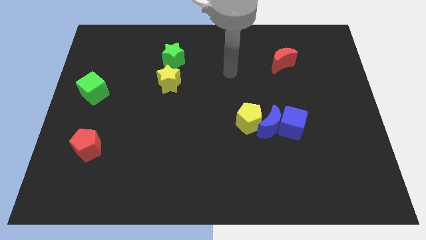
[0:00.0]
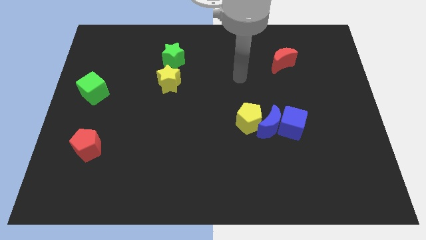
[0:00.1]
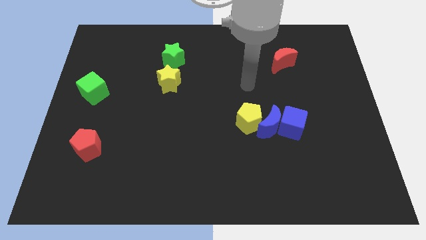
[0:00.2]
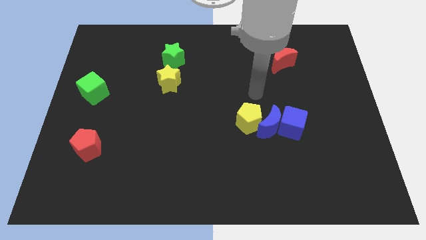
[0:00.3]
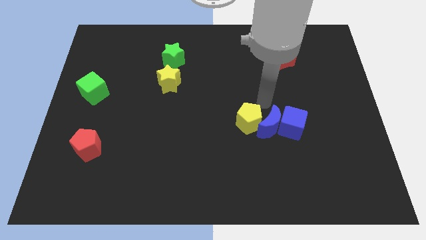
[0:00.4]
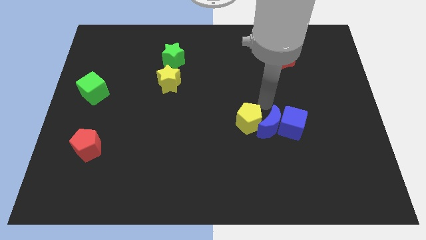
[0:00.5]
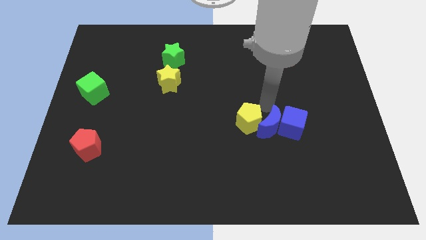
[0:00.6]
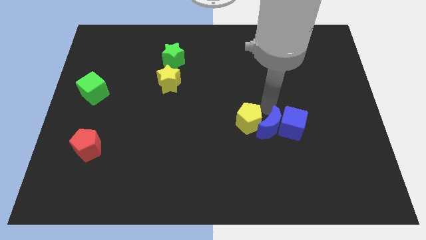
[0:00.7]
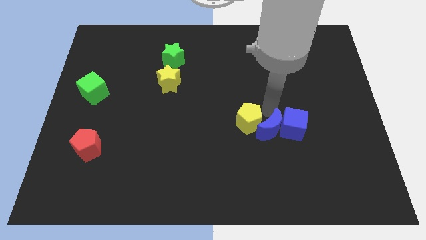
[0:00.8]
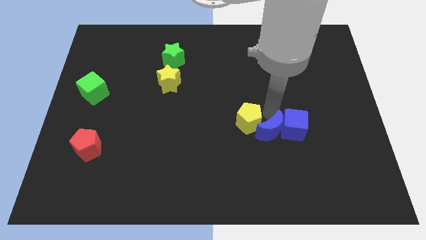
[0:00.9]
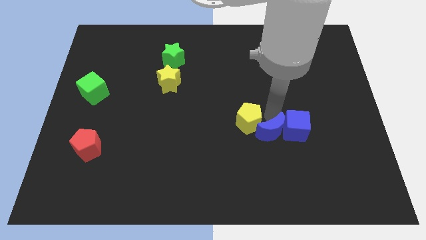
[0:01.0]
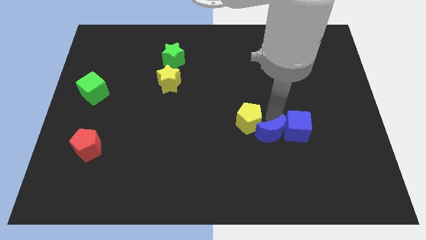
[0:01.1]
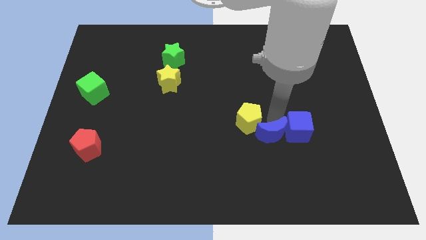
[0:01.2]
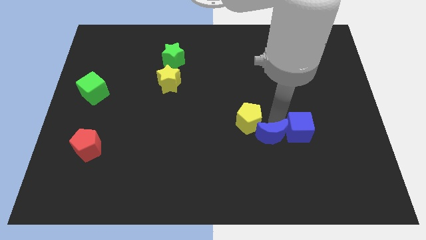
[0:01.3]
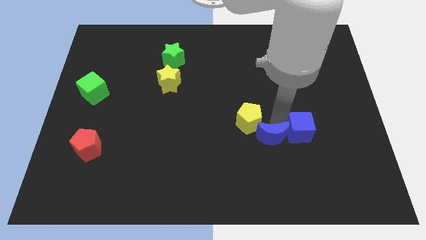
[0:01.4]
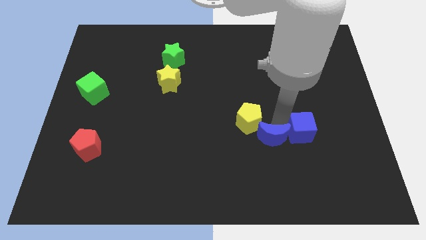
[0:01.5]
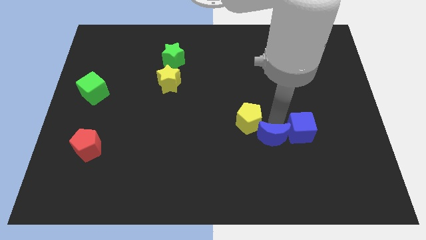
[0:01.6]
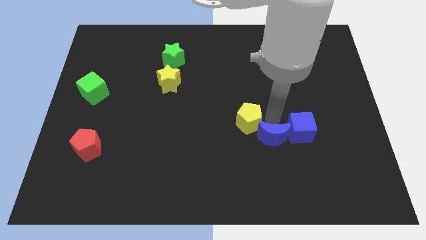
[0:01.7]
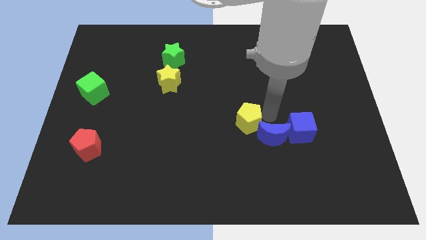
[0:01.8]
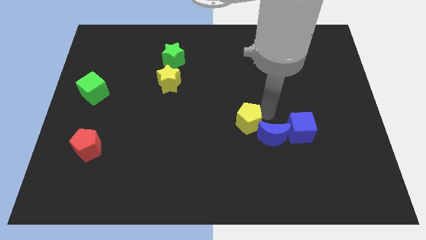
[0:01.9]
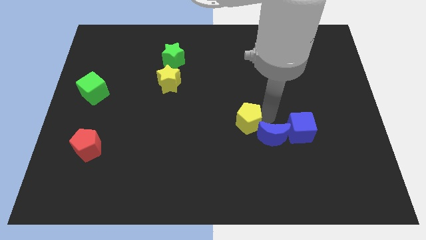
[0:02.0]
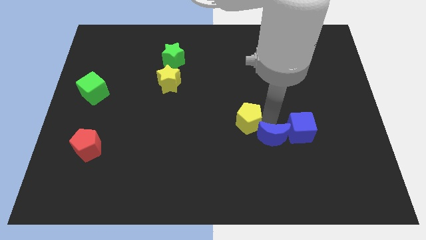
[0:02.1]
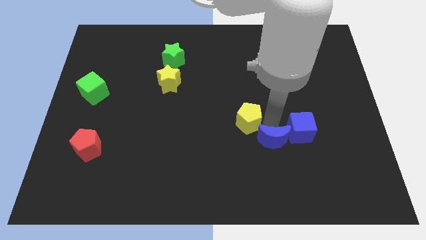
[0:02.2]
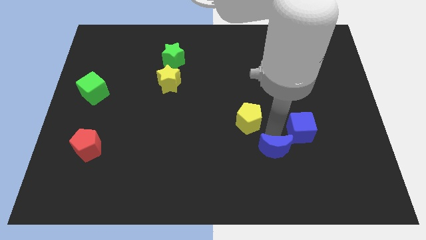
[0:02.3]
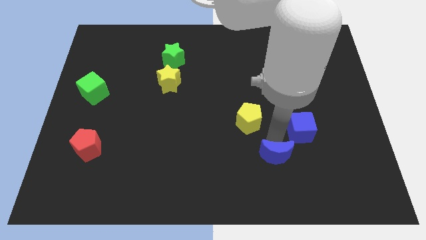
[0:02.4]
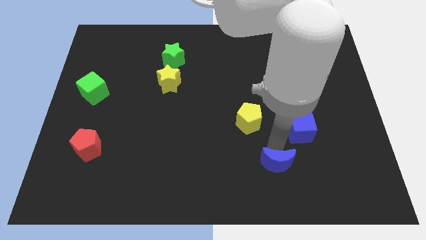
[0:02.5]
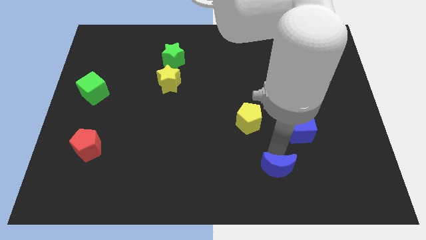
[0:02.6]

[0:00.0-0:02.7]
pull the blue moon apart from the blue cube and yellow pentagon

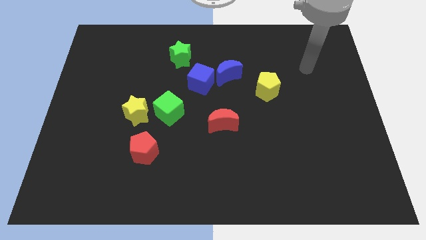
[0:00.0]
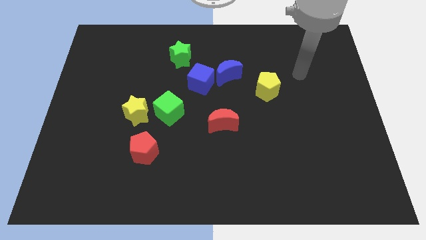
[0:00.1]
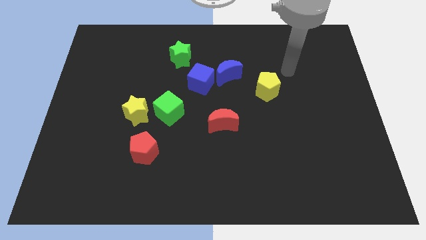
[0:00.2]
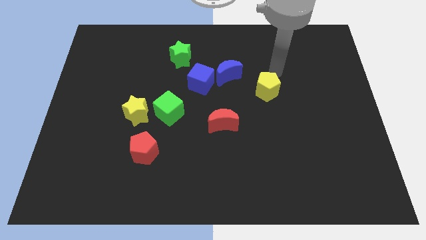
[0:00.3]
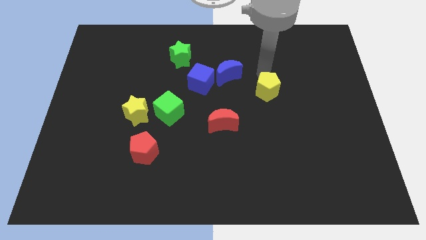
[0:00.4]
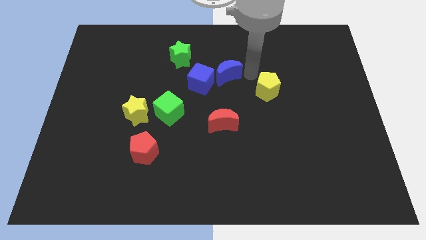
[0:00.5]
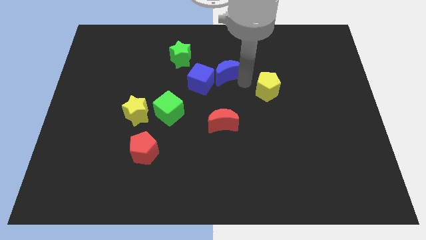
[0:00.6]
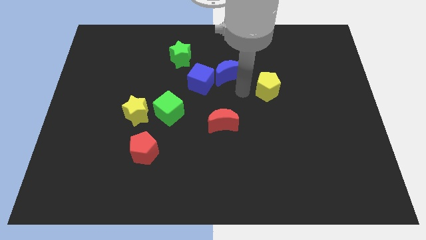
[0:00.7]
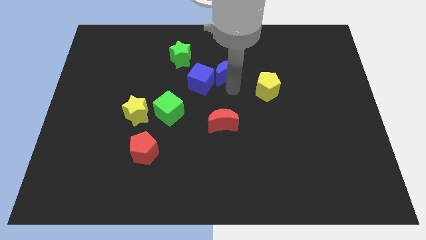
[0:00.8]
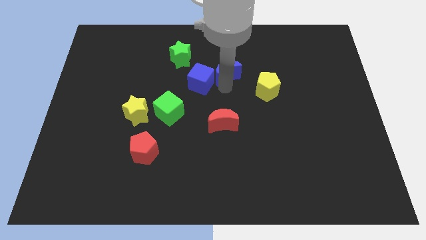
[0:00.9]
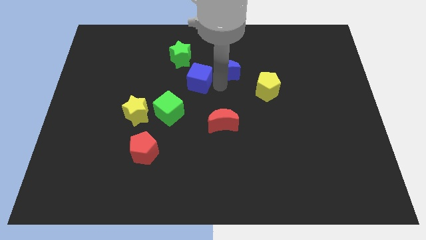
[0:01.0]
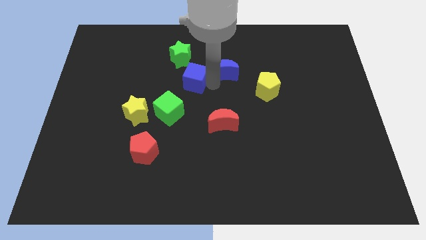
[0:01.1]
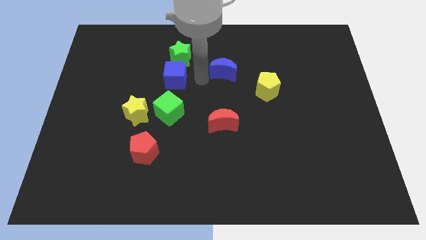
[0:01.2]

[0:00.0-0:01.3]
move the blue moon away from the blue cube

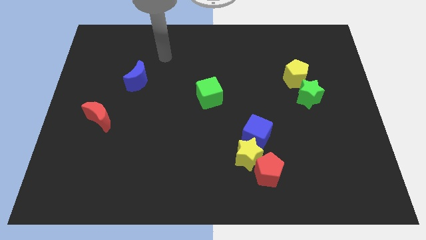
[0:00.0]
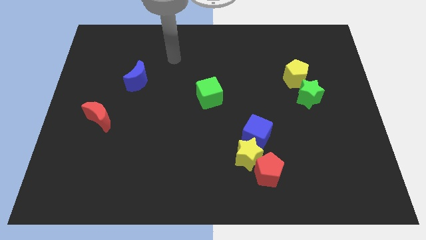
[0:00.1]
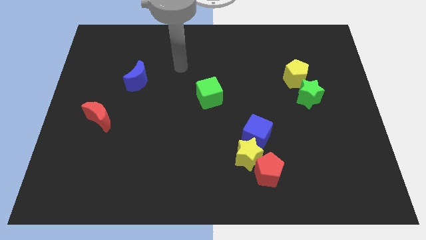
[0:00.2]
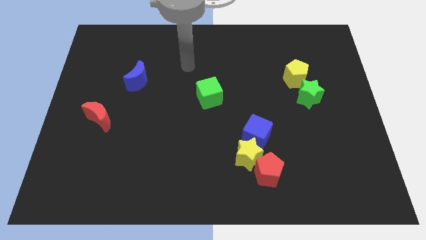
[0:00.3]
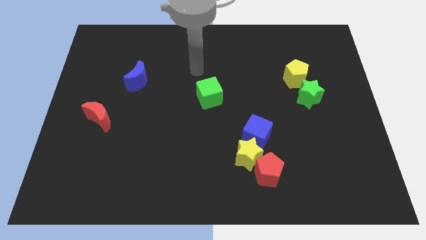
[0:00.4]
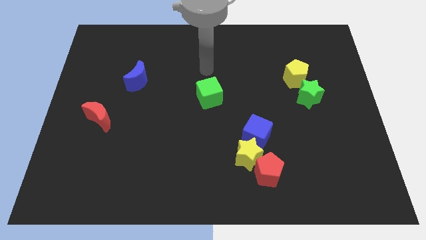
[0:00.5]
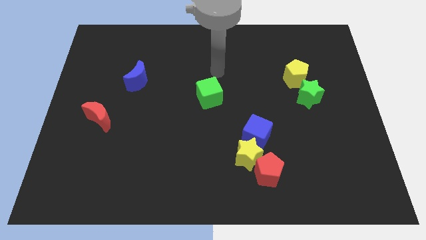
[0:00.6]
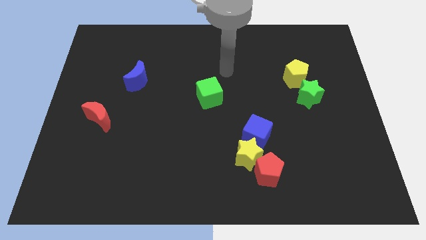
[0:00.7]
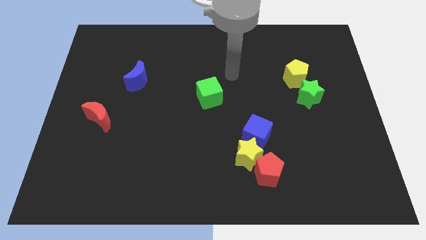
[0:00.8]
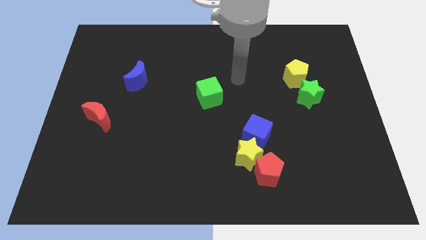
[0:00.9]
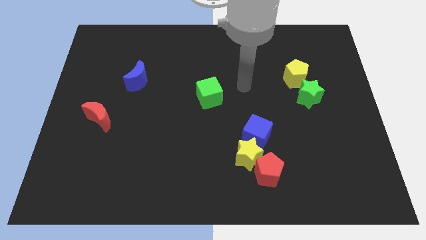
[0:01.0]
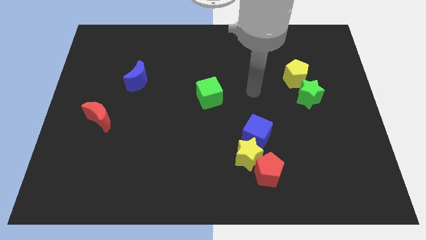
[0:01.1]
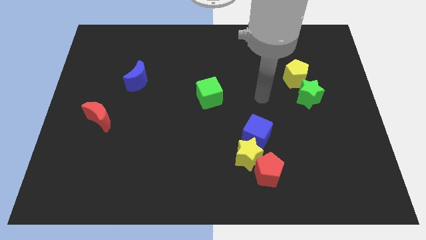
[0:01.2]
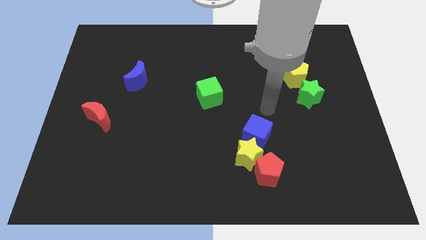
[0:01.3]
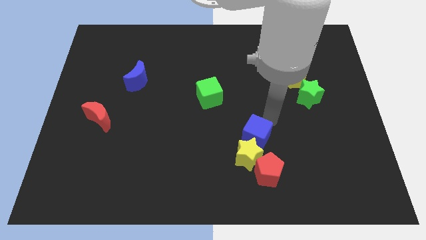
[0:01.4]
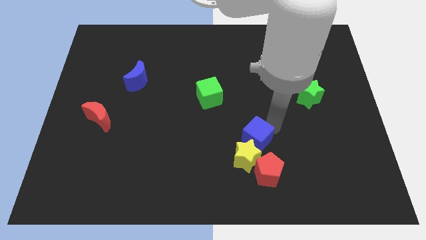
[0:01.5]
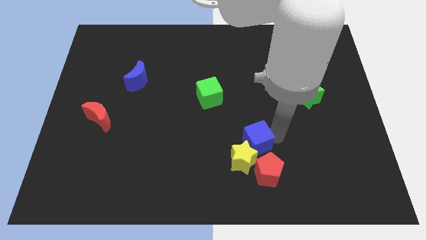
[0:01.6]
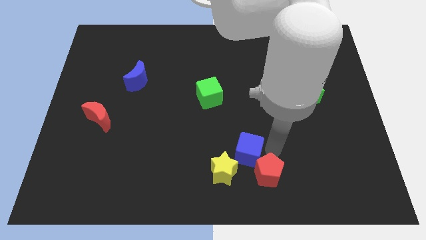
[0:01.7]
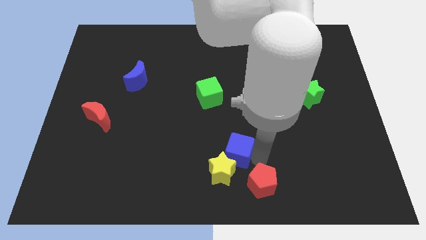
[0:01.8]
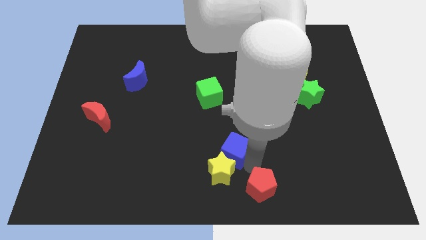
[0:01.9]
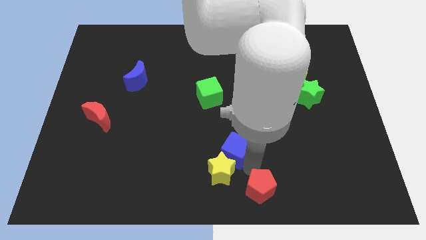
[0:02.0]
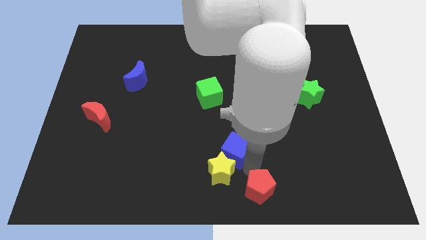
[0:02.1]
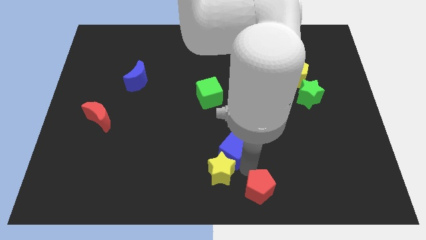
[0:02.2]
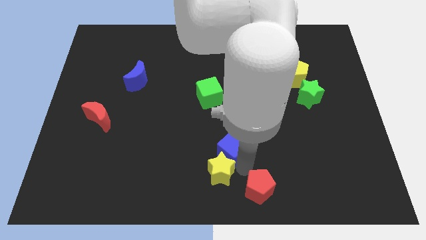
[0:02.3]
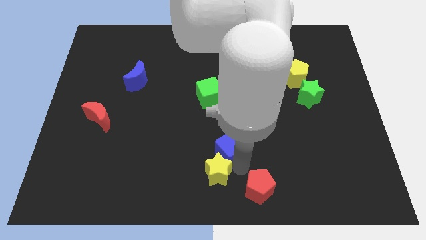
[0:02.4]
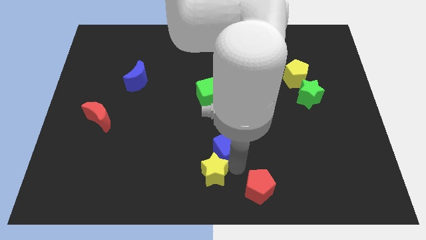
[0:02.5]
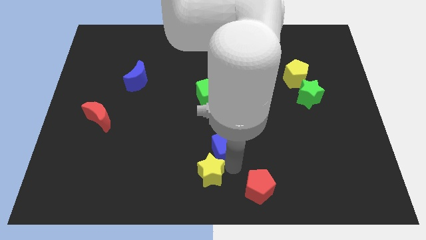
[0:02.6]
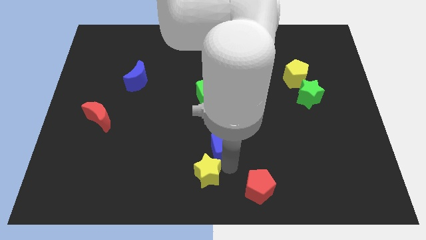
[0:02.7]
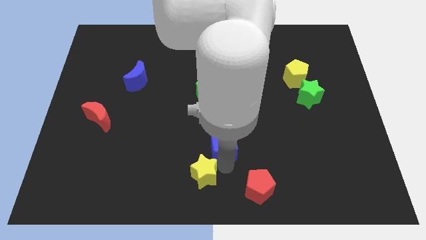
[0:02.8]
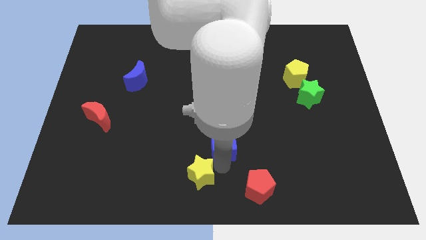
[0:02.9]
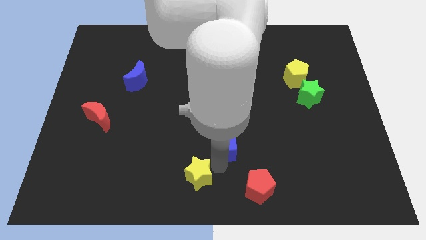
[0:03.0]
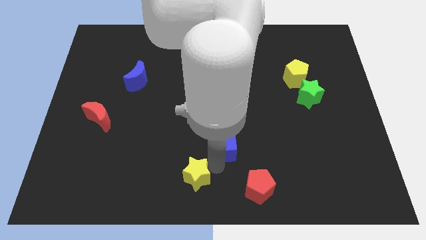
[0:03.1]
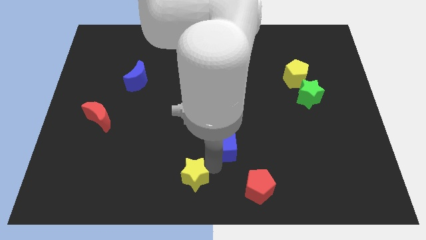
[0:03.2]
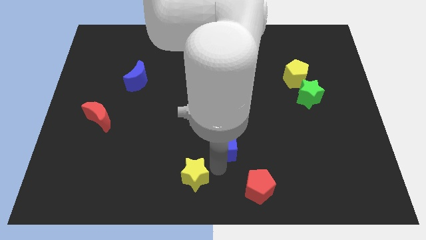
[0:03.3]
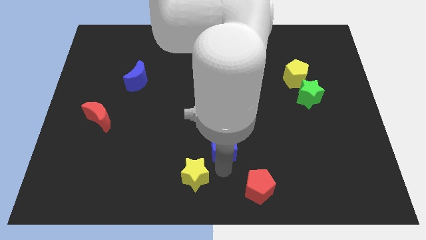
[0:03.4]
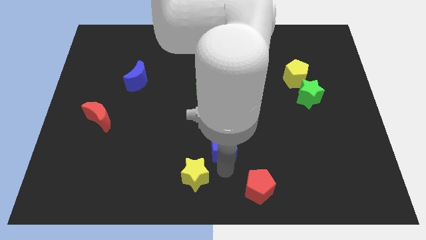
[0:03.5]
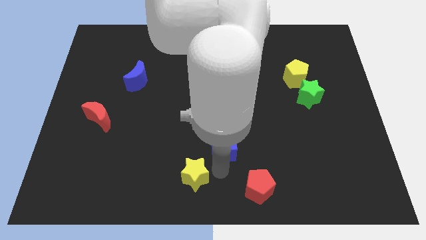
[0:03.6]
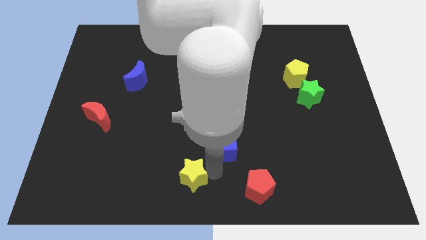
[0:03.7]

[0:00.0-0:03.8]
move the yellow star away from the red pentagon and blue cube

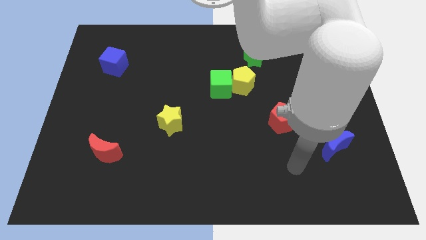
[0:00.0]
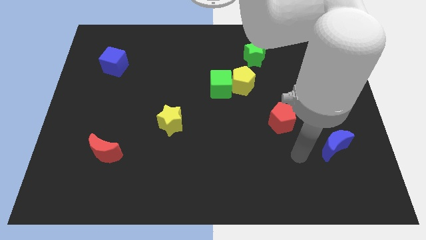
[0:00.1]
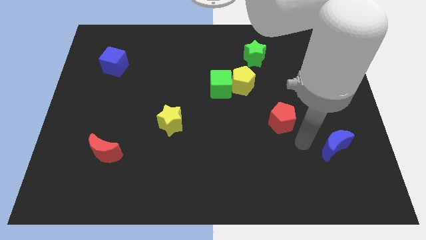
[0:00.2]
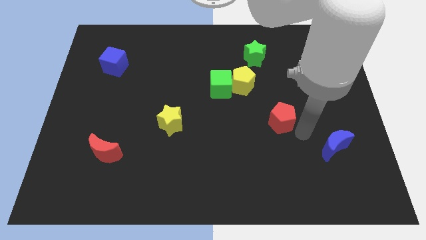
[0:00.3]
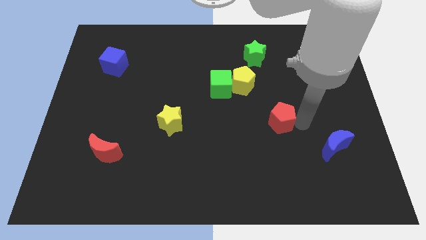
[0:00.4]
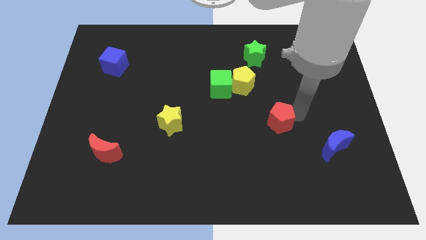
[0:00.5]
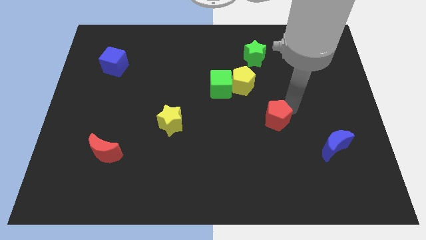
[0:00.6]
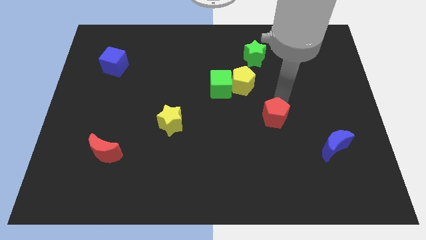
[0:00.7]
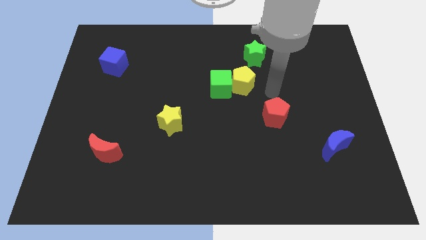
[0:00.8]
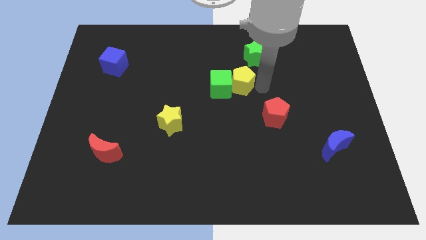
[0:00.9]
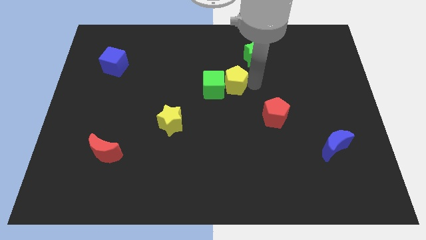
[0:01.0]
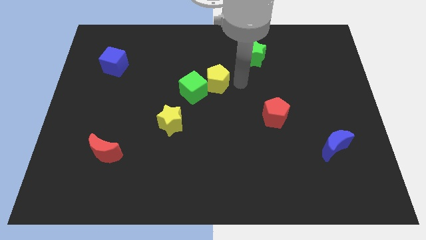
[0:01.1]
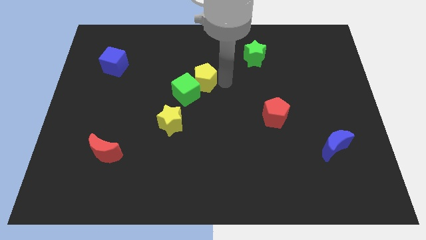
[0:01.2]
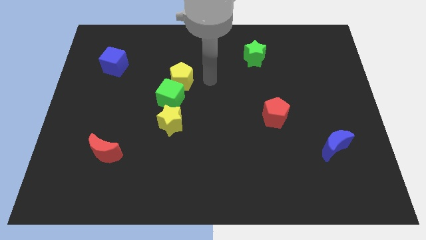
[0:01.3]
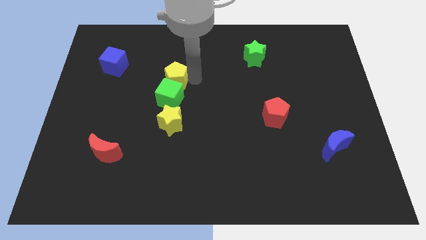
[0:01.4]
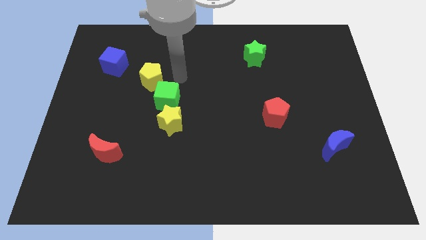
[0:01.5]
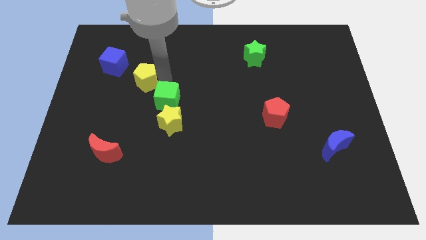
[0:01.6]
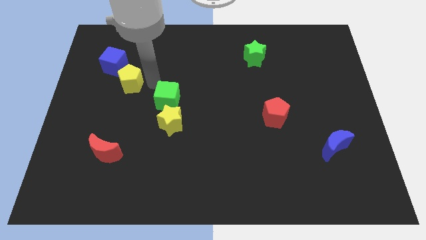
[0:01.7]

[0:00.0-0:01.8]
pull the green cube apart from the yellow pentagon
